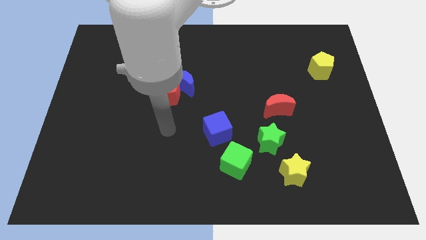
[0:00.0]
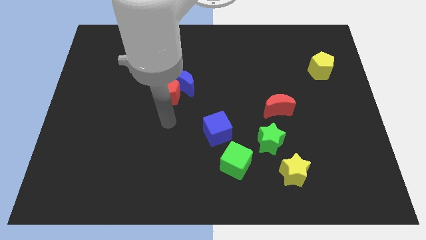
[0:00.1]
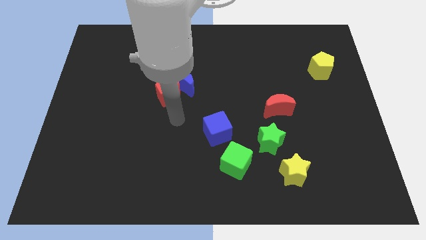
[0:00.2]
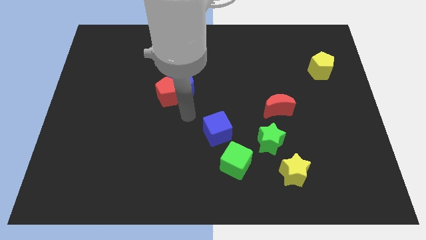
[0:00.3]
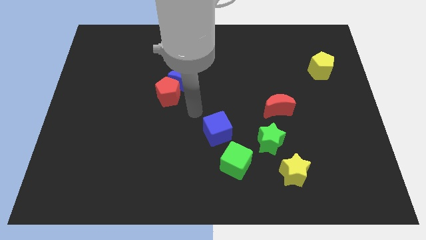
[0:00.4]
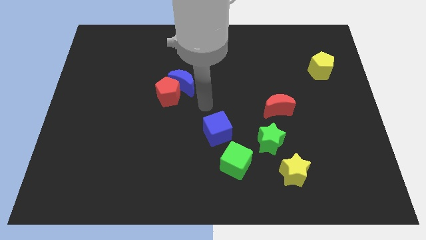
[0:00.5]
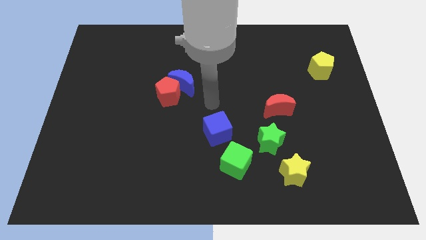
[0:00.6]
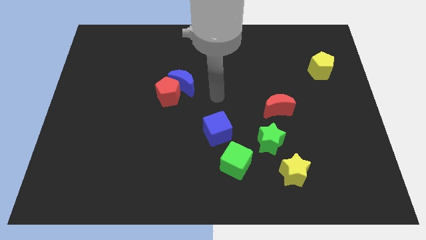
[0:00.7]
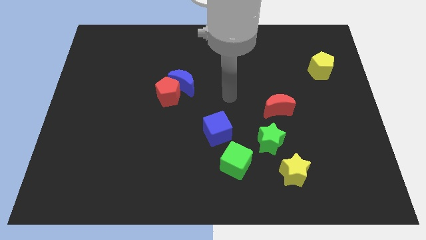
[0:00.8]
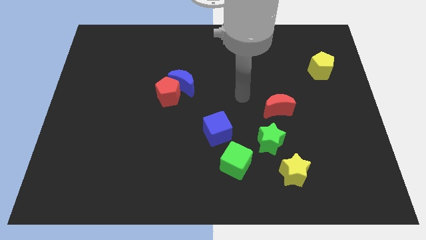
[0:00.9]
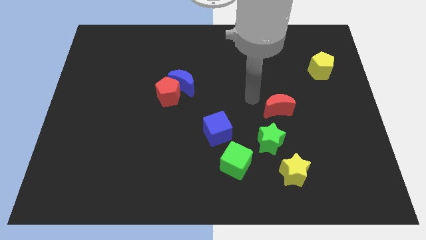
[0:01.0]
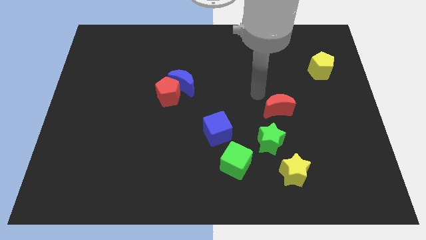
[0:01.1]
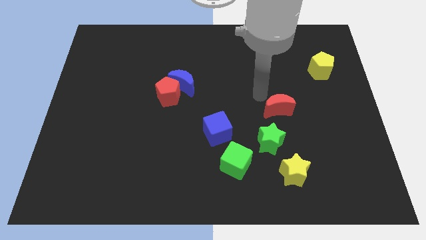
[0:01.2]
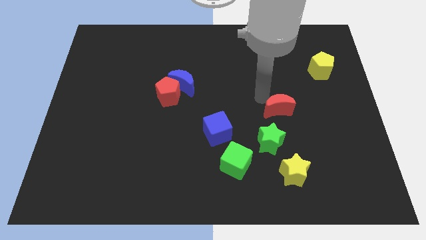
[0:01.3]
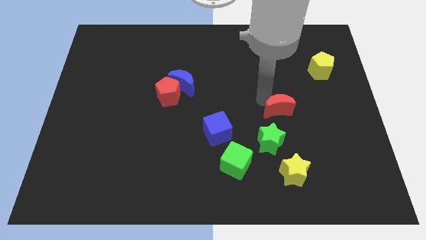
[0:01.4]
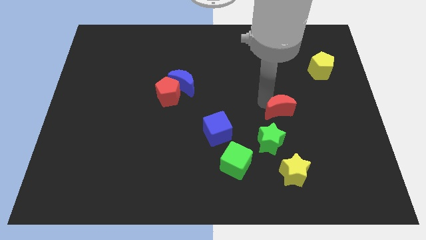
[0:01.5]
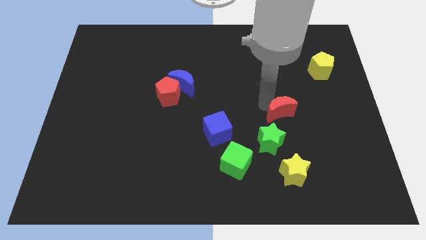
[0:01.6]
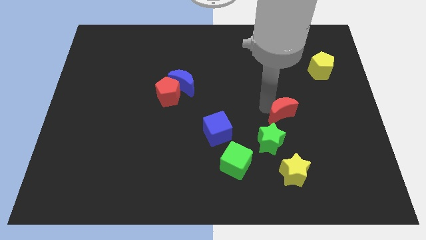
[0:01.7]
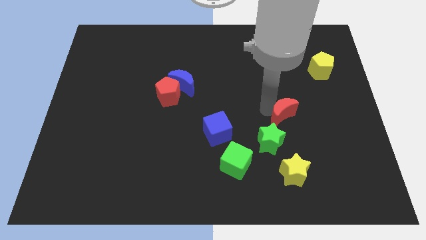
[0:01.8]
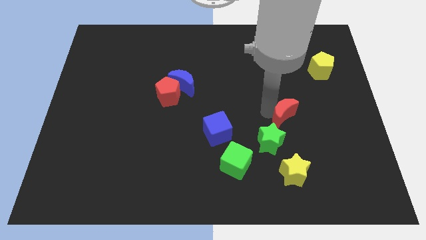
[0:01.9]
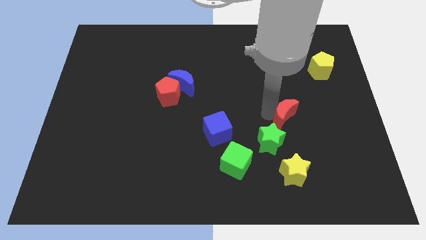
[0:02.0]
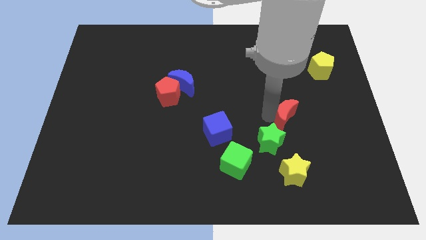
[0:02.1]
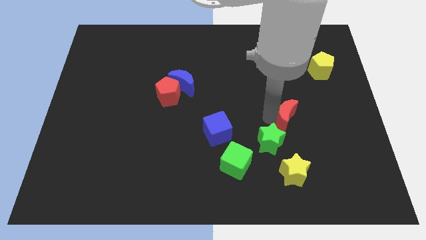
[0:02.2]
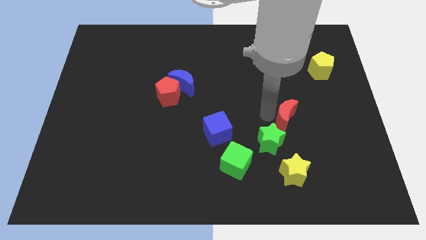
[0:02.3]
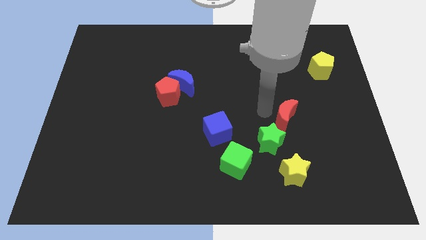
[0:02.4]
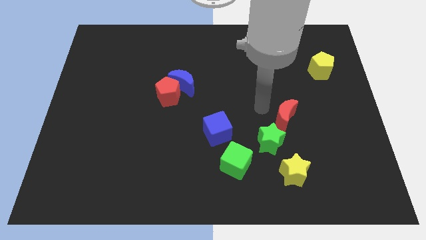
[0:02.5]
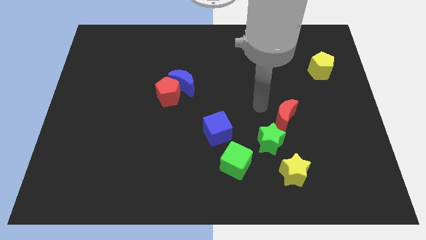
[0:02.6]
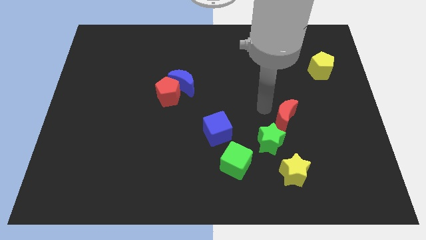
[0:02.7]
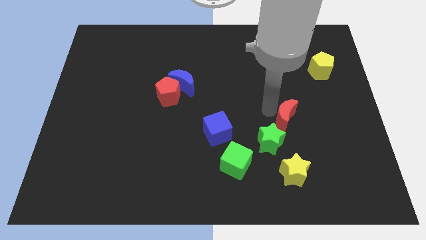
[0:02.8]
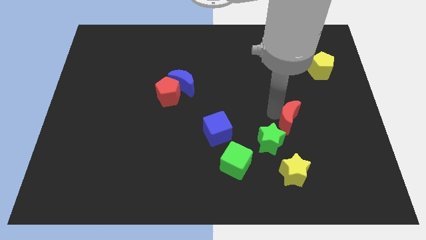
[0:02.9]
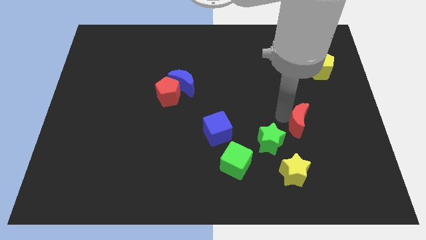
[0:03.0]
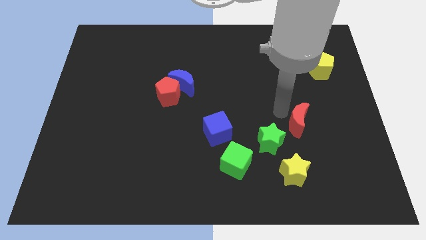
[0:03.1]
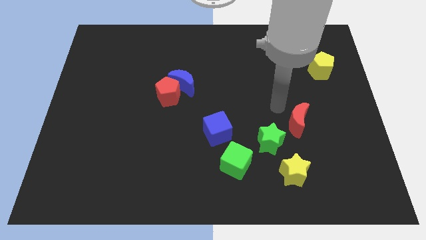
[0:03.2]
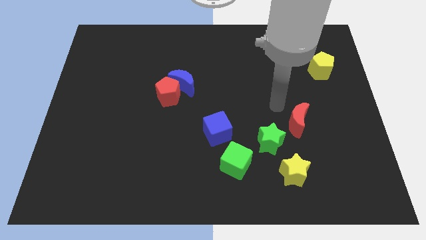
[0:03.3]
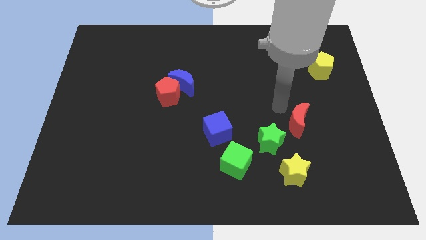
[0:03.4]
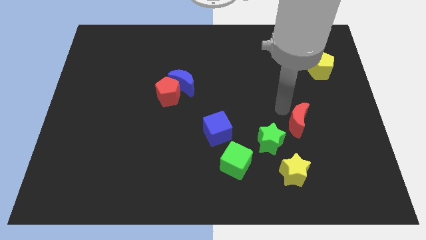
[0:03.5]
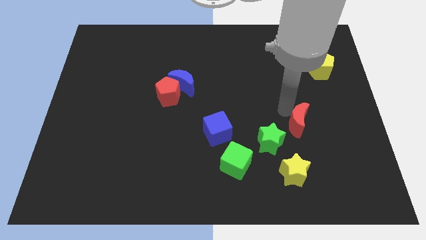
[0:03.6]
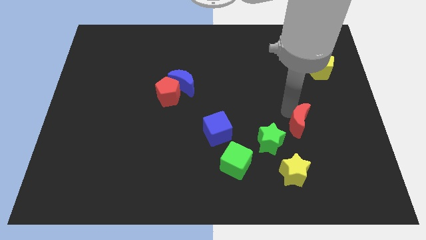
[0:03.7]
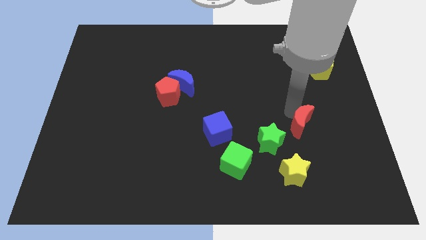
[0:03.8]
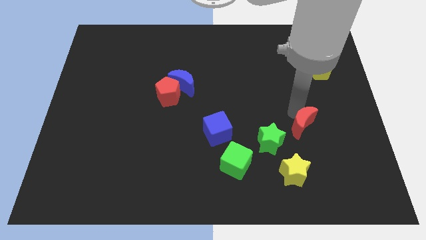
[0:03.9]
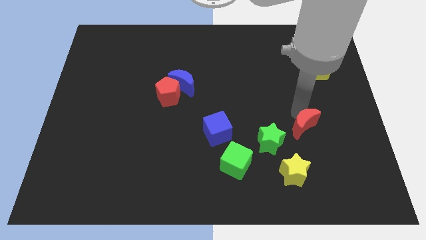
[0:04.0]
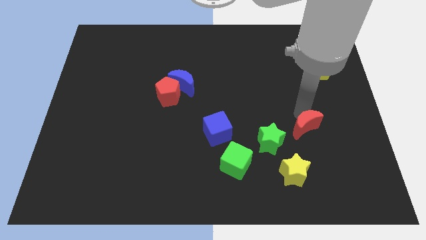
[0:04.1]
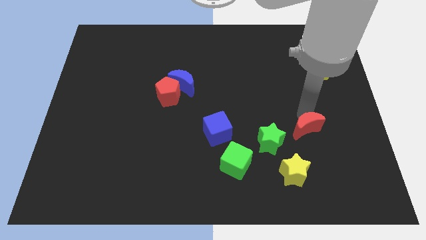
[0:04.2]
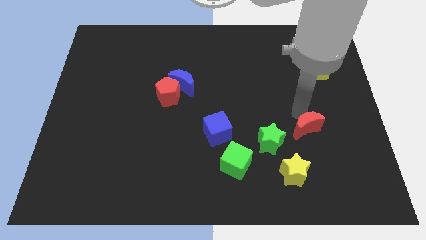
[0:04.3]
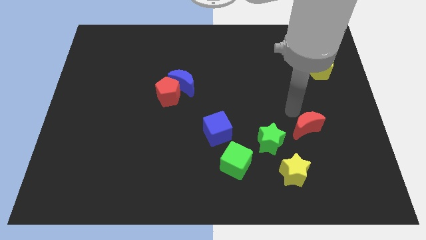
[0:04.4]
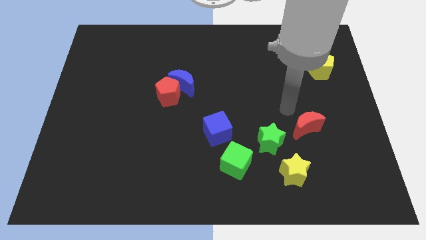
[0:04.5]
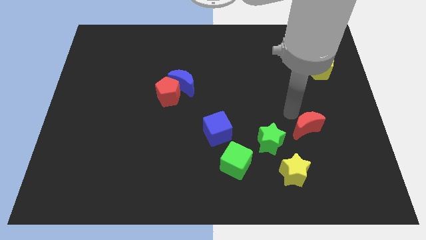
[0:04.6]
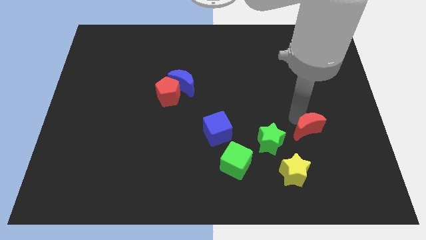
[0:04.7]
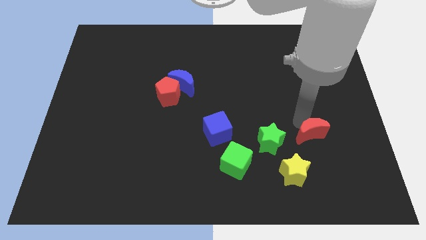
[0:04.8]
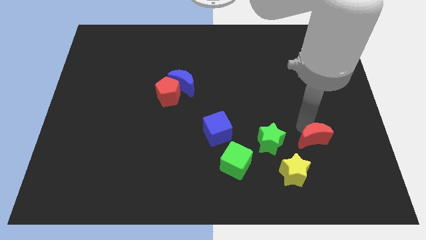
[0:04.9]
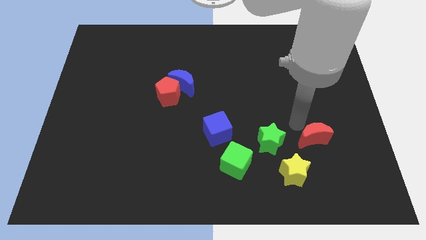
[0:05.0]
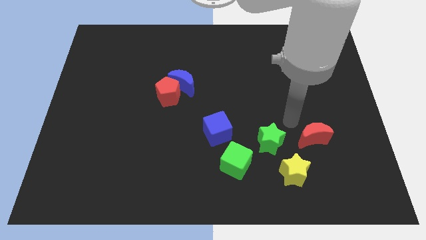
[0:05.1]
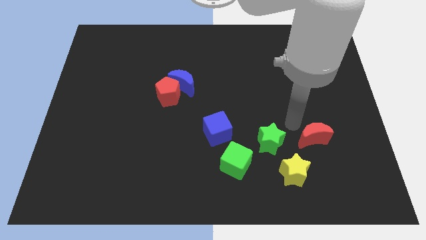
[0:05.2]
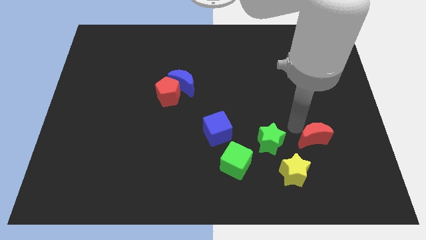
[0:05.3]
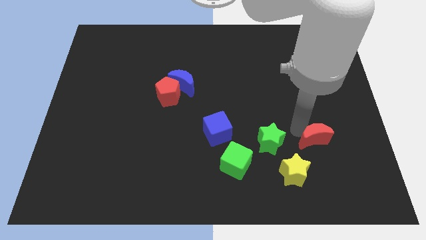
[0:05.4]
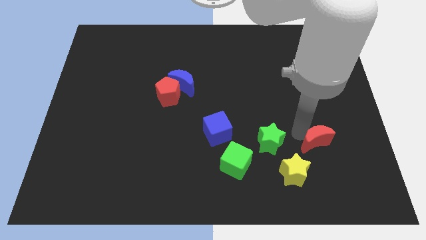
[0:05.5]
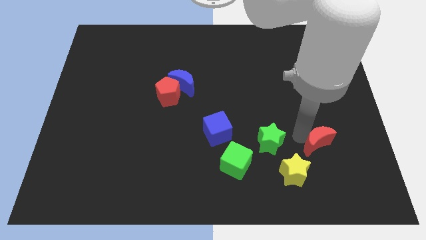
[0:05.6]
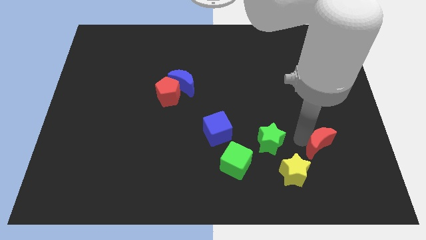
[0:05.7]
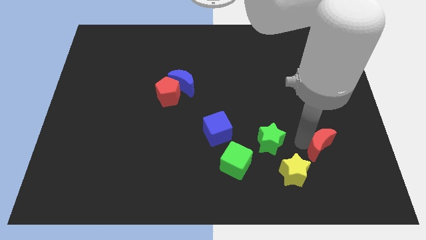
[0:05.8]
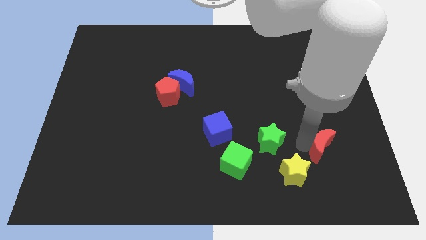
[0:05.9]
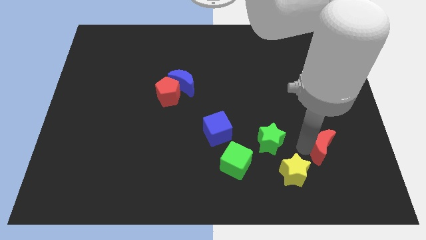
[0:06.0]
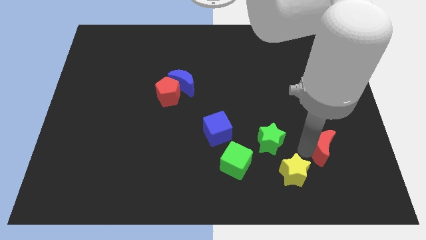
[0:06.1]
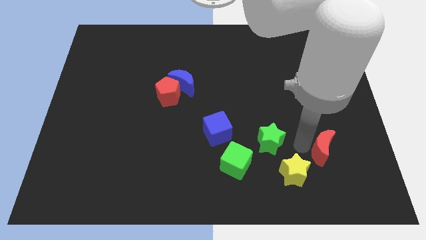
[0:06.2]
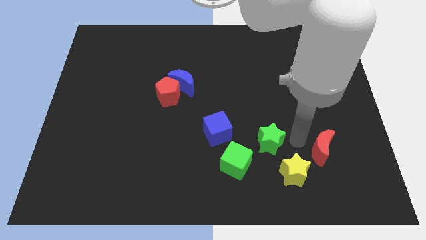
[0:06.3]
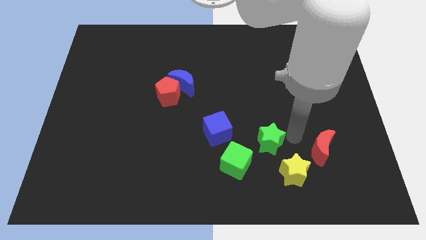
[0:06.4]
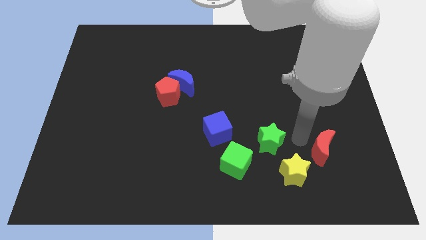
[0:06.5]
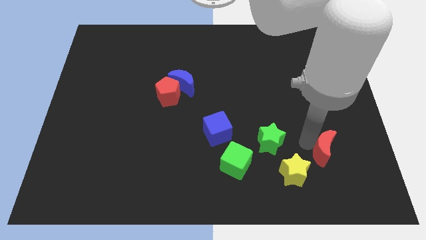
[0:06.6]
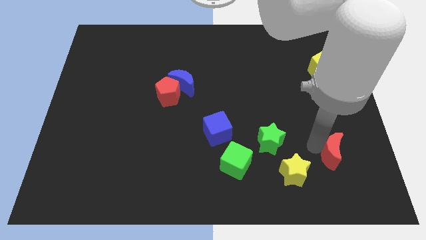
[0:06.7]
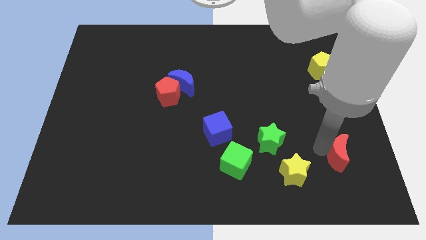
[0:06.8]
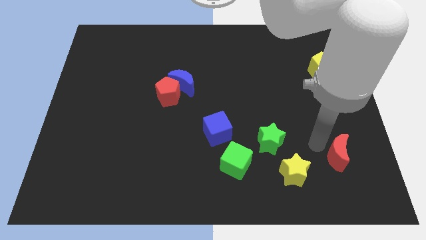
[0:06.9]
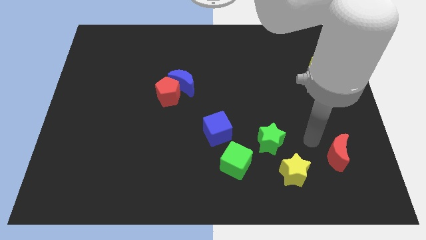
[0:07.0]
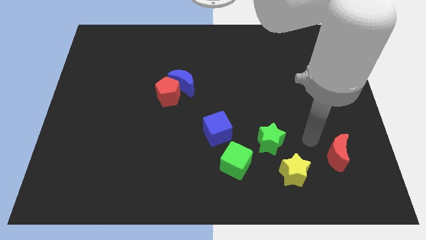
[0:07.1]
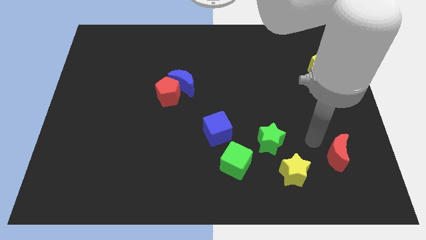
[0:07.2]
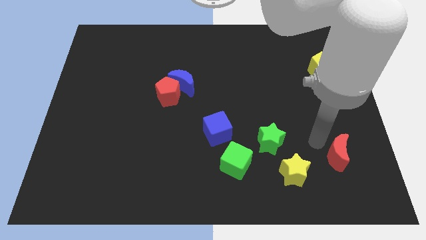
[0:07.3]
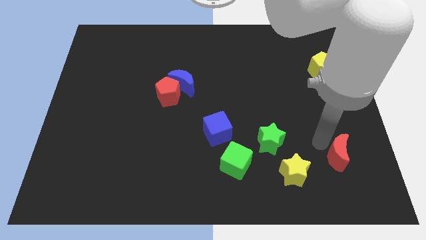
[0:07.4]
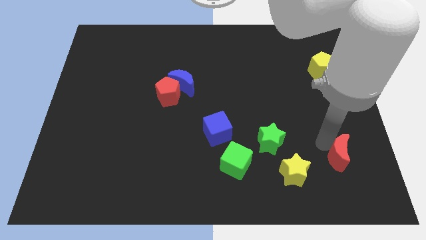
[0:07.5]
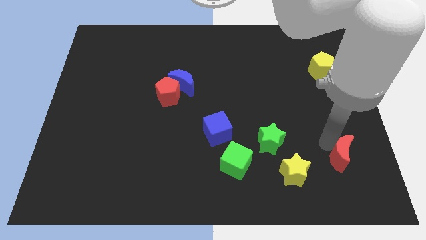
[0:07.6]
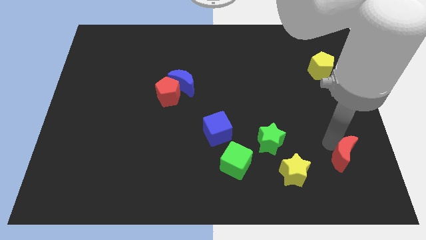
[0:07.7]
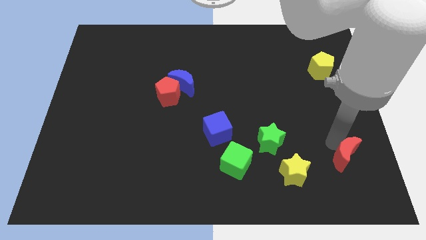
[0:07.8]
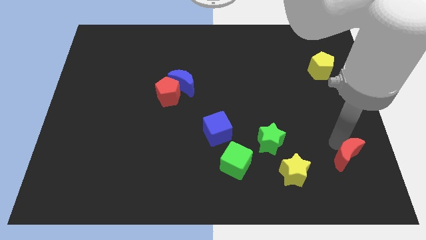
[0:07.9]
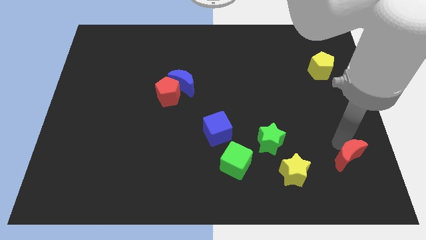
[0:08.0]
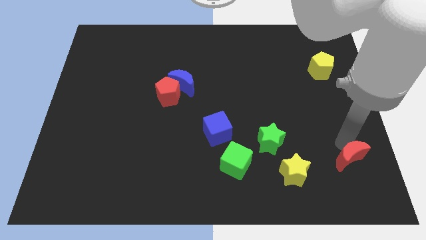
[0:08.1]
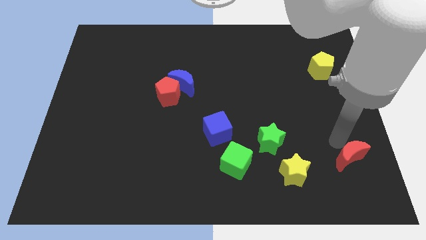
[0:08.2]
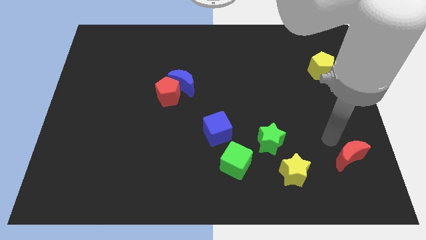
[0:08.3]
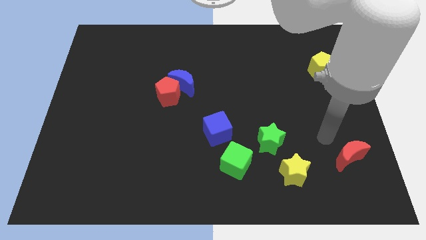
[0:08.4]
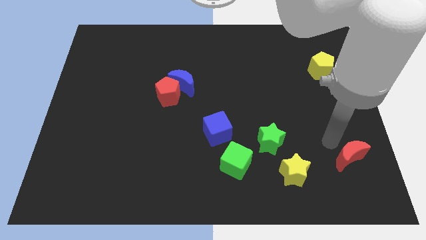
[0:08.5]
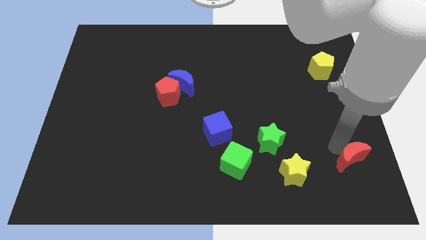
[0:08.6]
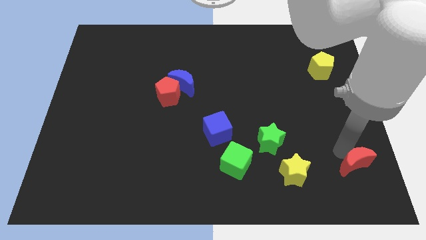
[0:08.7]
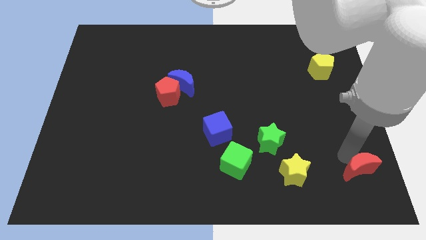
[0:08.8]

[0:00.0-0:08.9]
slide the red moon to the bottom right of the board
